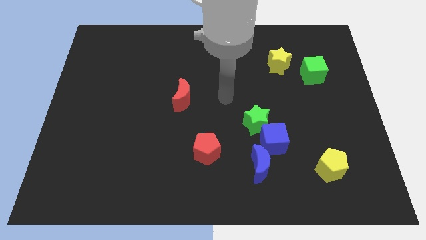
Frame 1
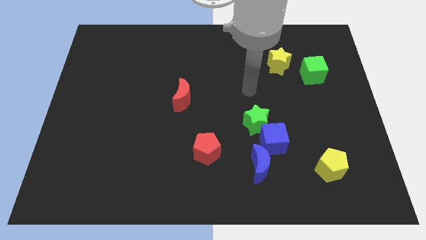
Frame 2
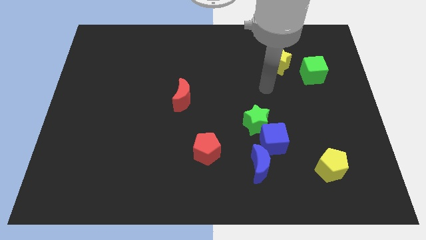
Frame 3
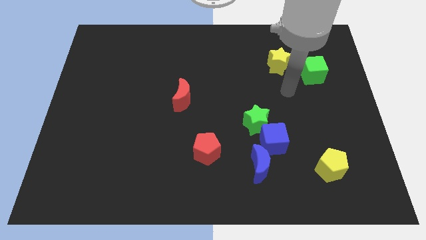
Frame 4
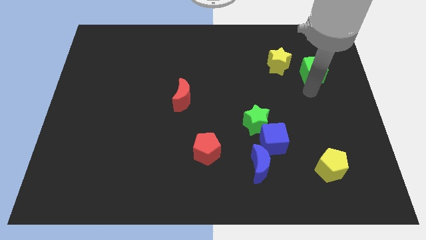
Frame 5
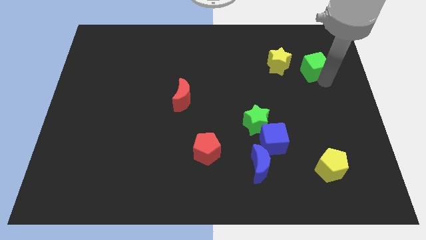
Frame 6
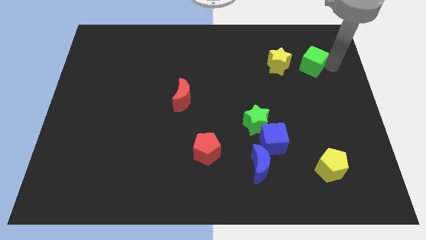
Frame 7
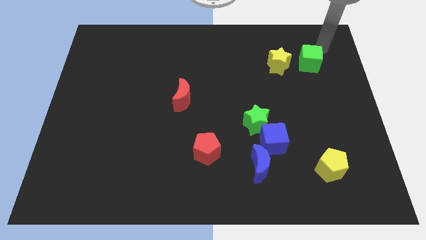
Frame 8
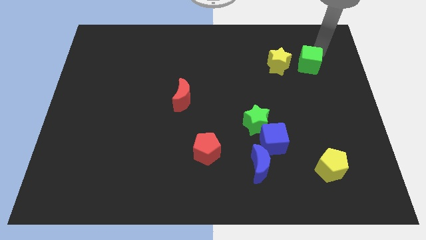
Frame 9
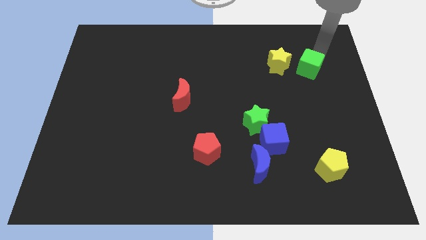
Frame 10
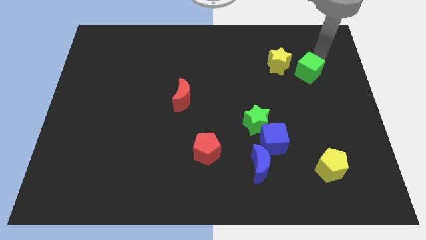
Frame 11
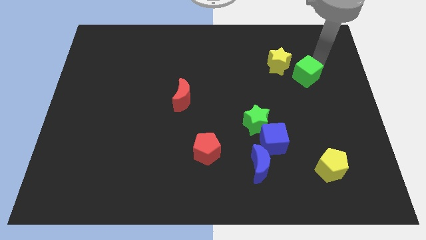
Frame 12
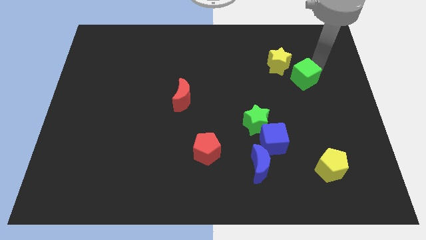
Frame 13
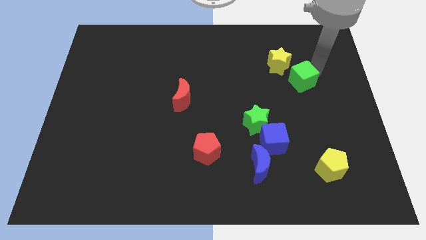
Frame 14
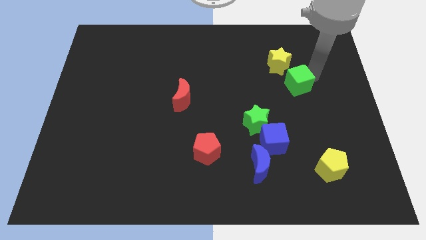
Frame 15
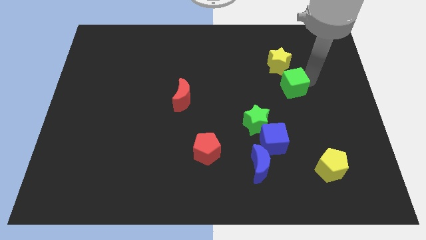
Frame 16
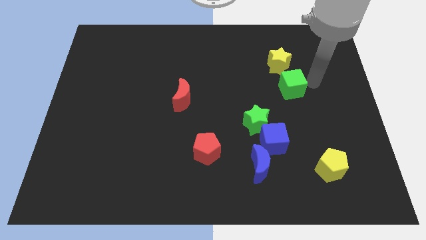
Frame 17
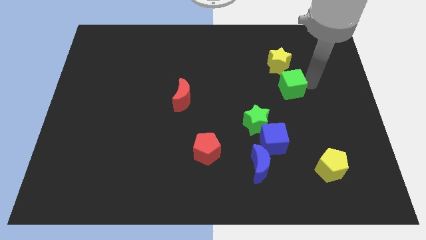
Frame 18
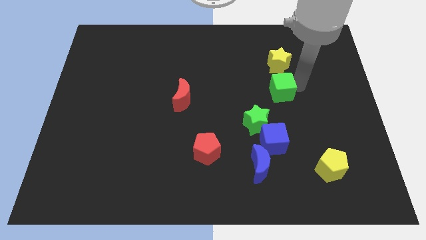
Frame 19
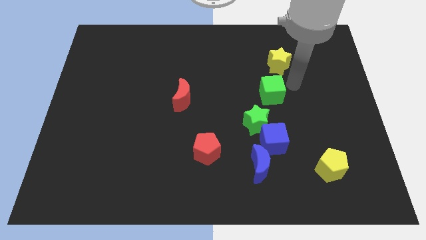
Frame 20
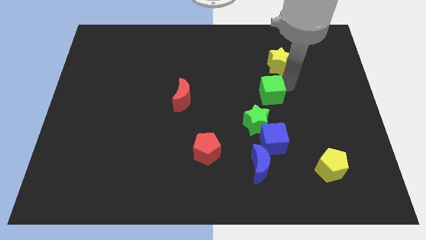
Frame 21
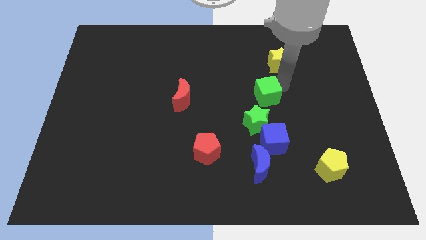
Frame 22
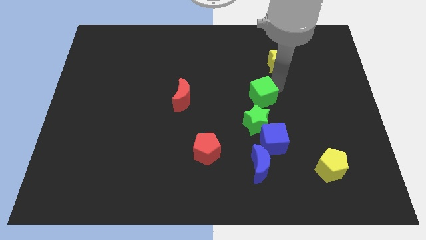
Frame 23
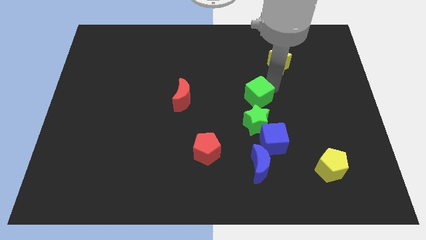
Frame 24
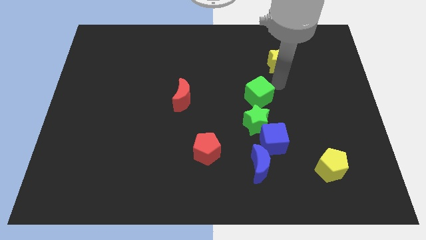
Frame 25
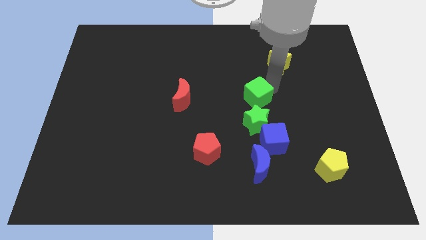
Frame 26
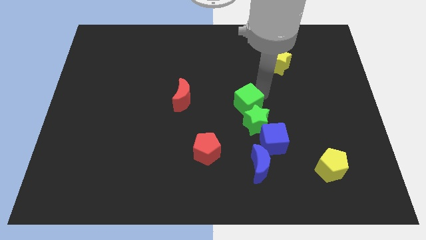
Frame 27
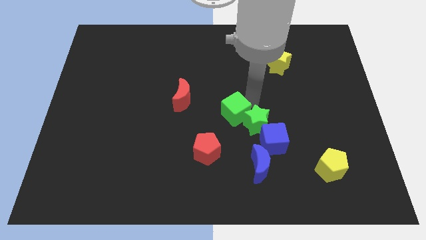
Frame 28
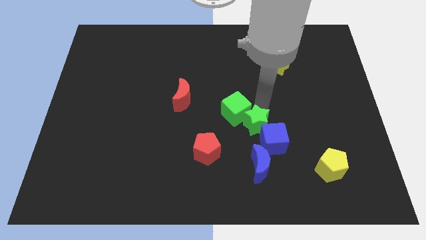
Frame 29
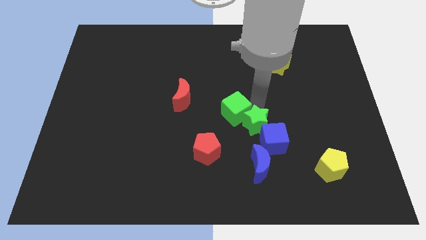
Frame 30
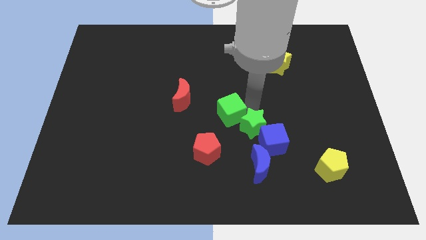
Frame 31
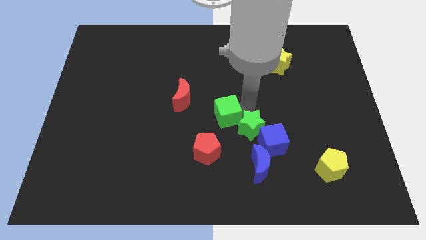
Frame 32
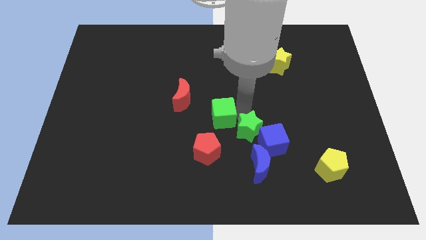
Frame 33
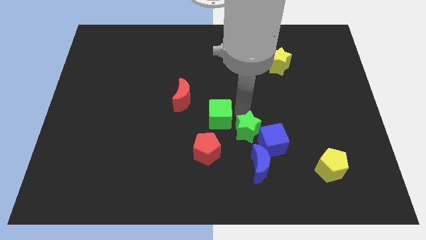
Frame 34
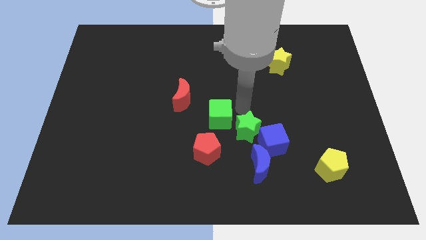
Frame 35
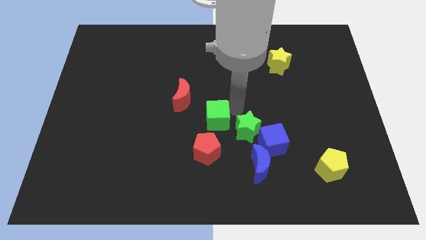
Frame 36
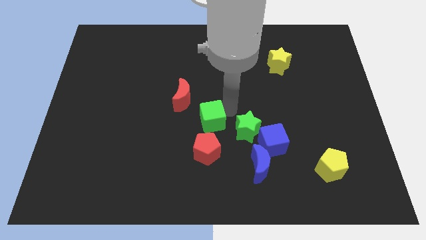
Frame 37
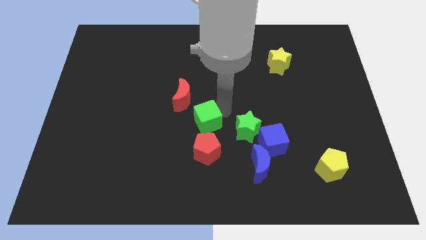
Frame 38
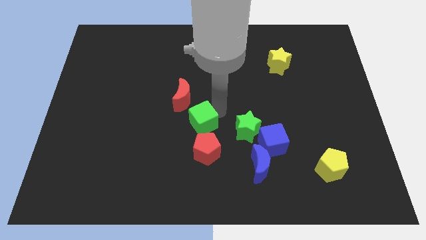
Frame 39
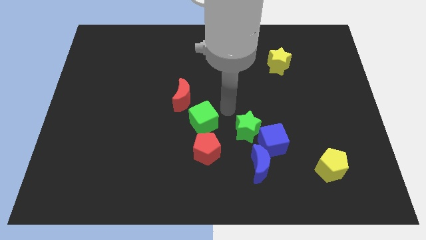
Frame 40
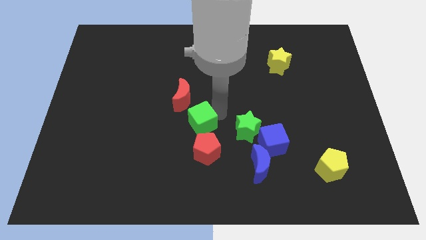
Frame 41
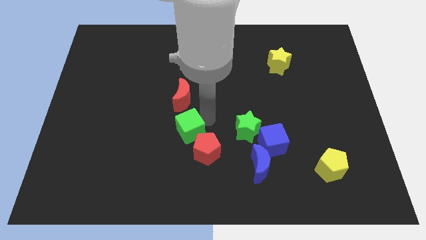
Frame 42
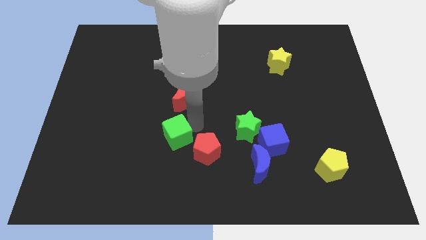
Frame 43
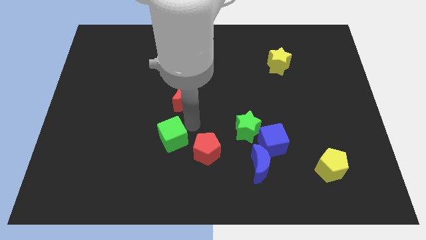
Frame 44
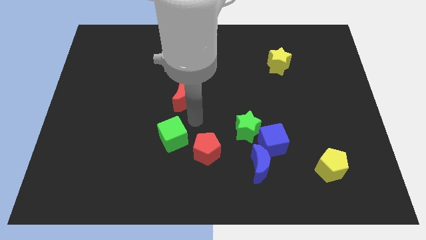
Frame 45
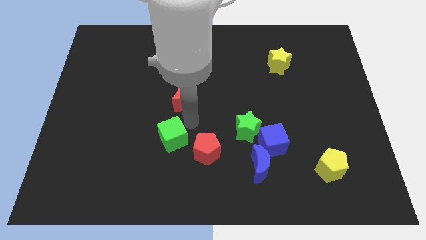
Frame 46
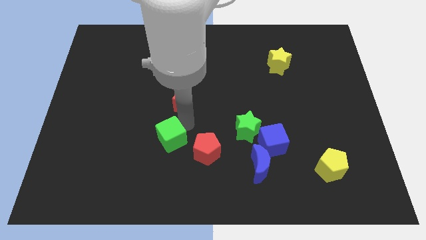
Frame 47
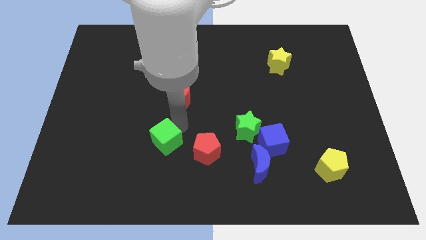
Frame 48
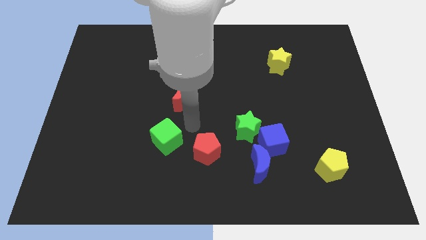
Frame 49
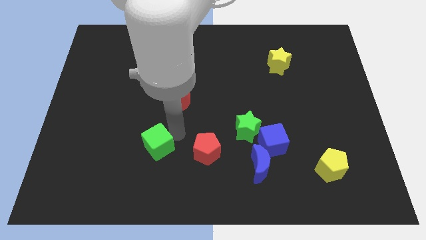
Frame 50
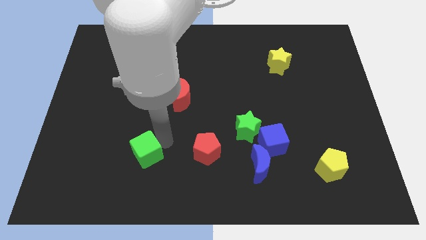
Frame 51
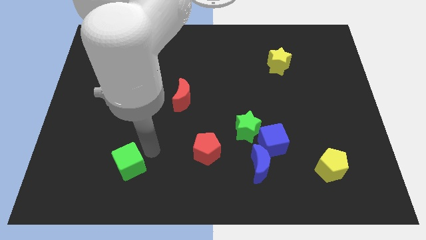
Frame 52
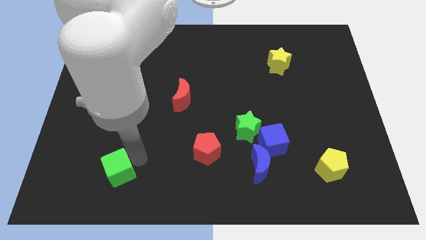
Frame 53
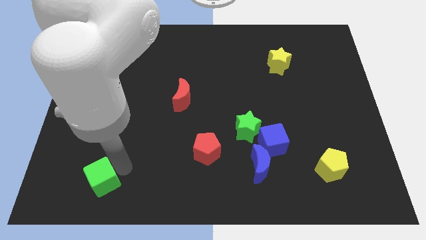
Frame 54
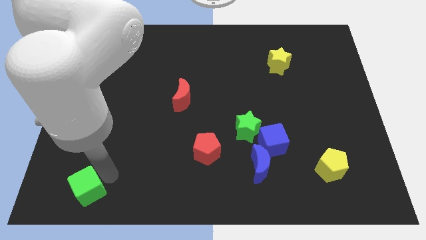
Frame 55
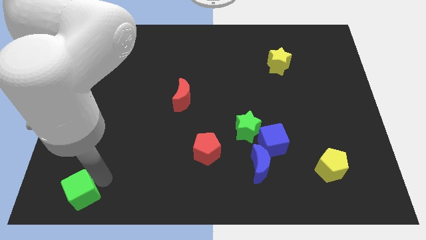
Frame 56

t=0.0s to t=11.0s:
move the green cube to the lower left corner

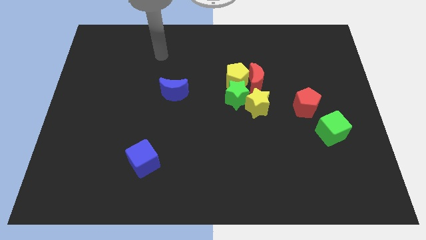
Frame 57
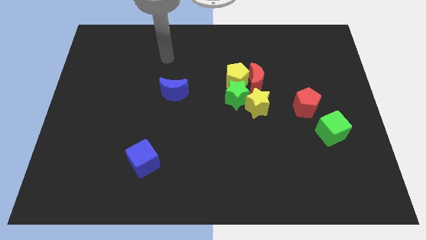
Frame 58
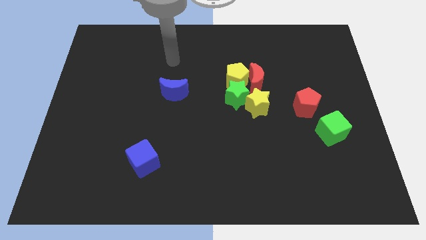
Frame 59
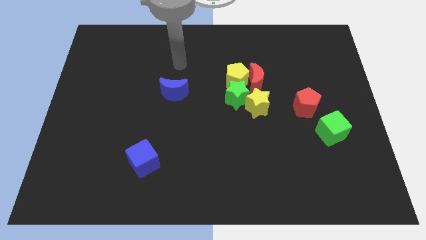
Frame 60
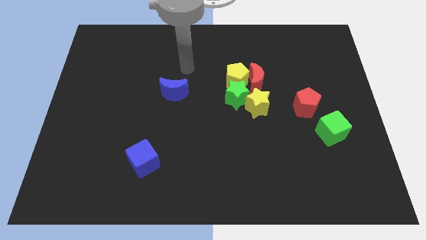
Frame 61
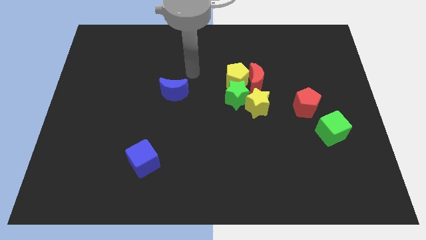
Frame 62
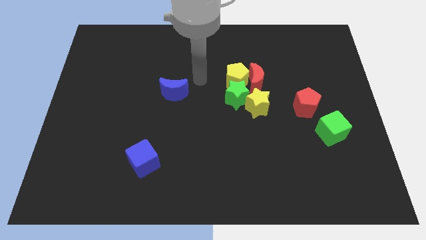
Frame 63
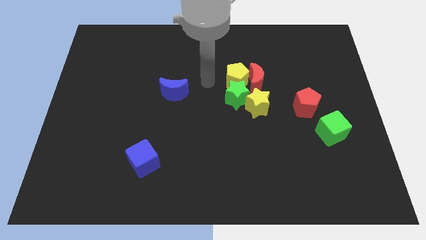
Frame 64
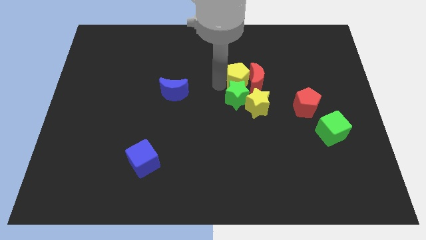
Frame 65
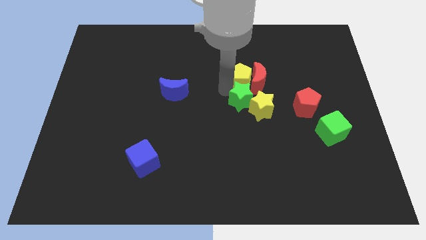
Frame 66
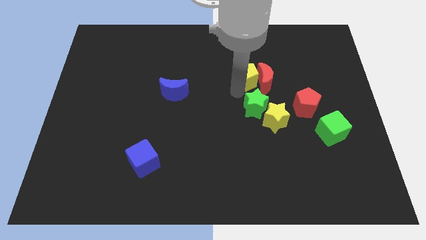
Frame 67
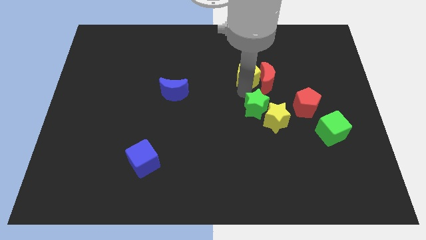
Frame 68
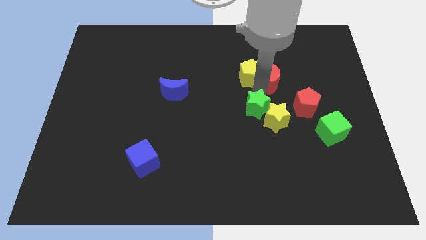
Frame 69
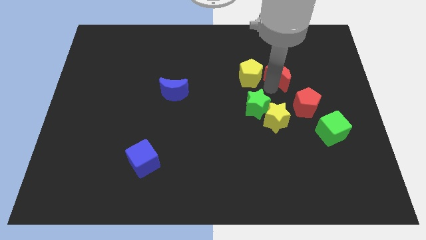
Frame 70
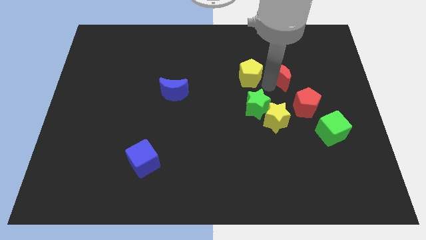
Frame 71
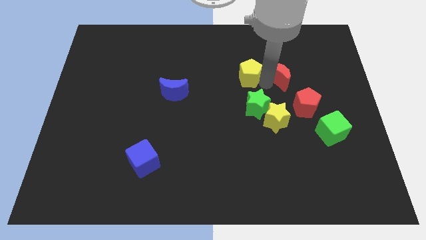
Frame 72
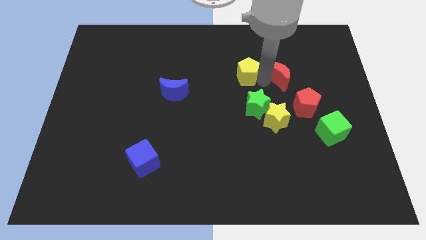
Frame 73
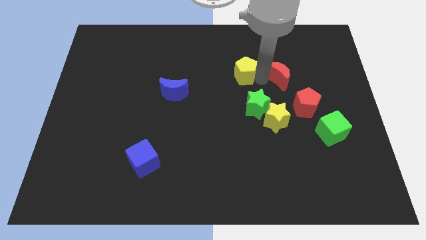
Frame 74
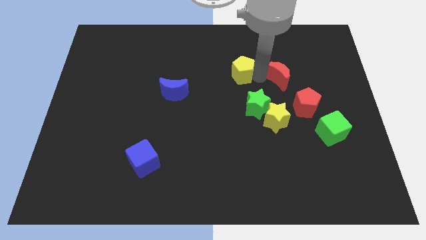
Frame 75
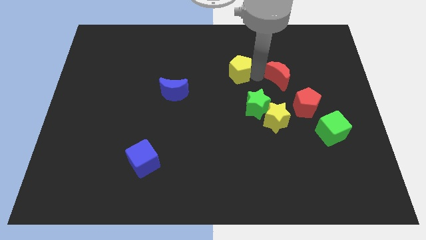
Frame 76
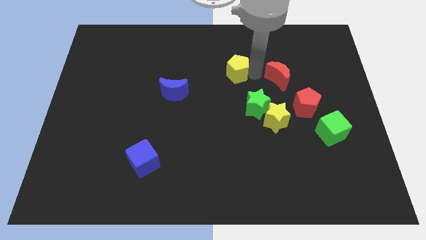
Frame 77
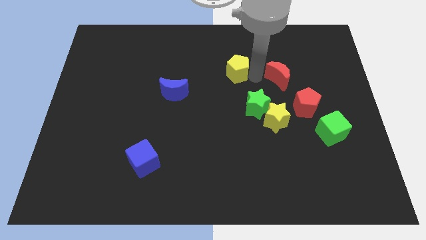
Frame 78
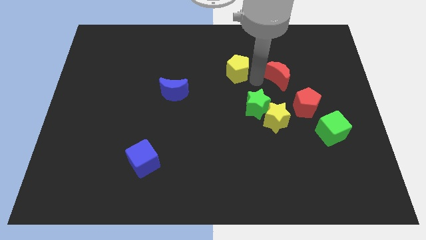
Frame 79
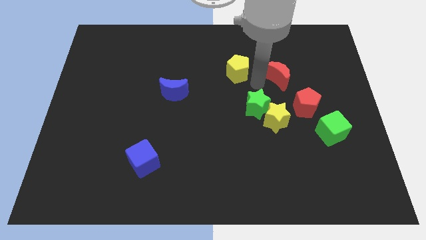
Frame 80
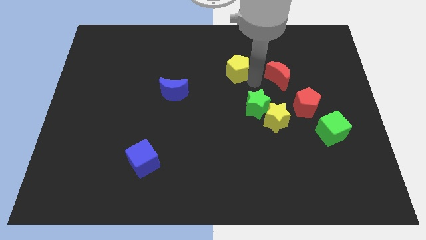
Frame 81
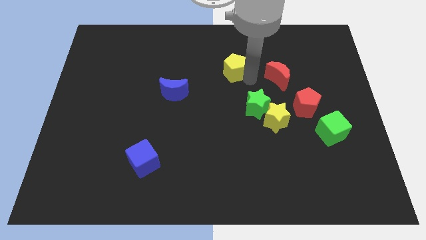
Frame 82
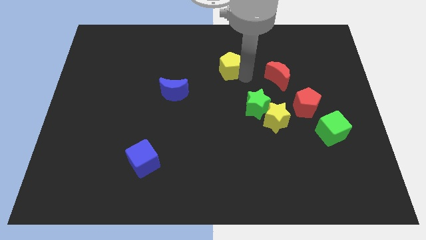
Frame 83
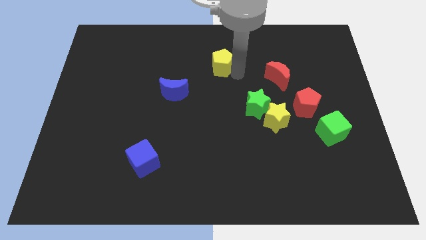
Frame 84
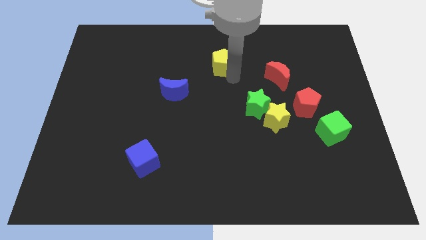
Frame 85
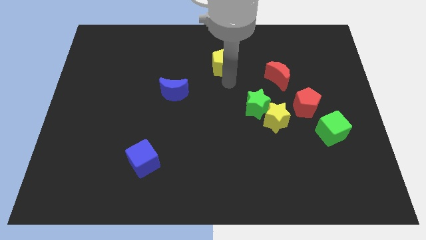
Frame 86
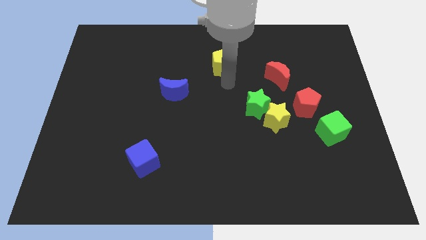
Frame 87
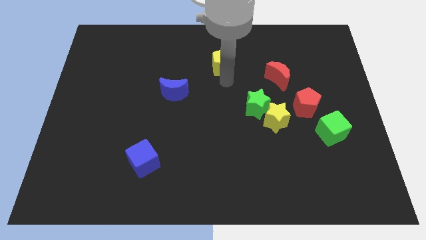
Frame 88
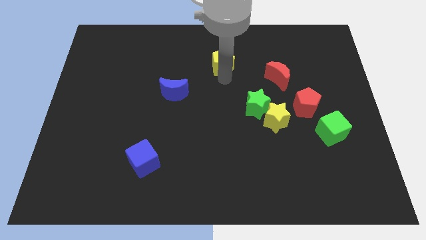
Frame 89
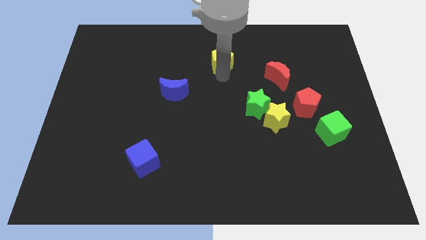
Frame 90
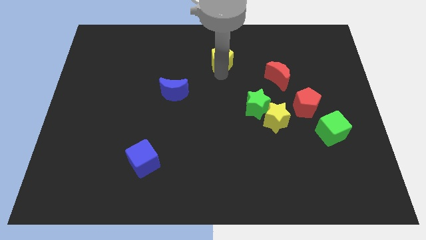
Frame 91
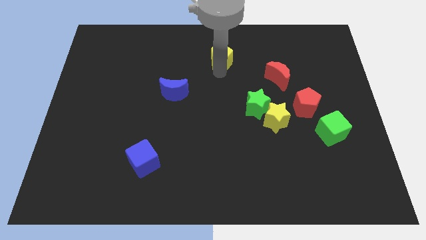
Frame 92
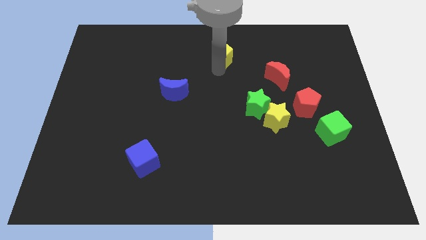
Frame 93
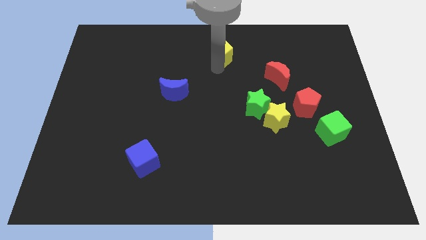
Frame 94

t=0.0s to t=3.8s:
slide the yellow pentagon to the top side
